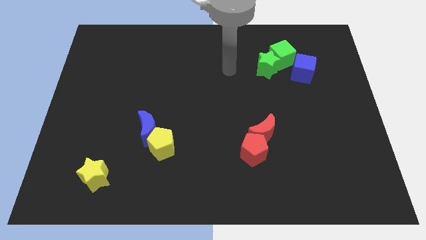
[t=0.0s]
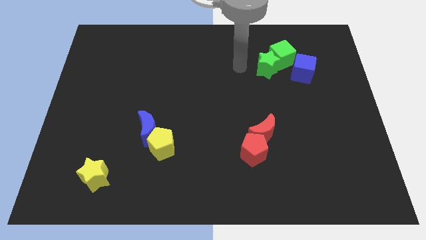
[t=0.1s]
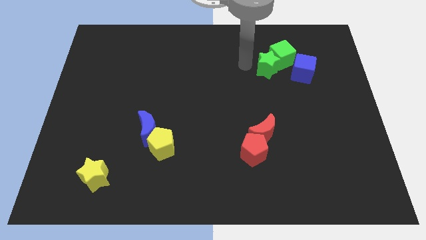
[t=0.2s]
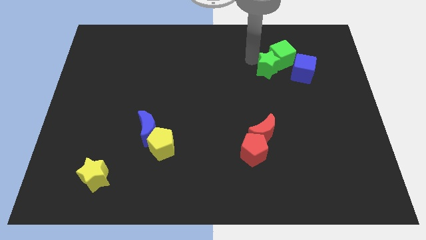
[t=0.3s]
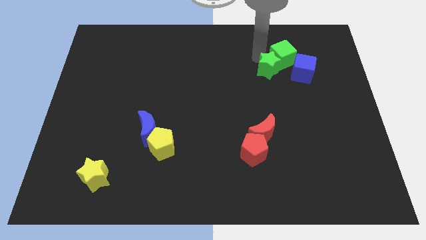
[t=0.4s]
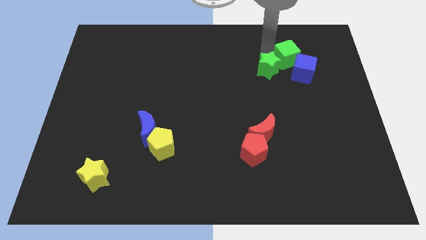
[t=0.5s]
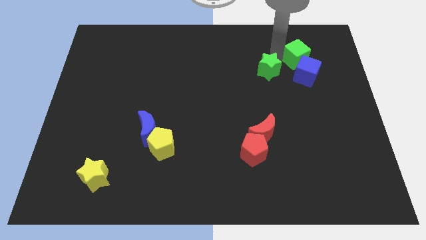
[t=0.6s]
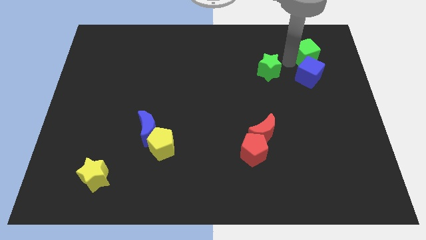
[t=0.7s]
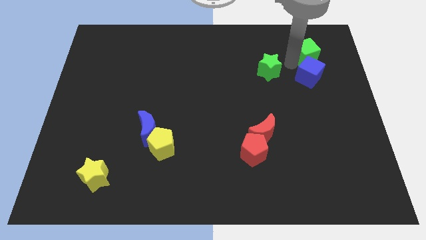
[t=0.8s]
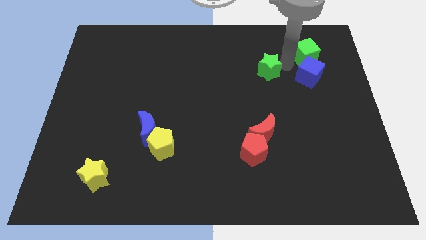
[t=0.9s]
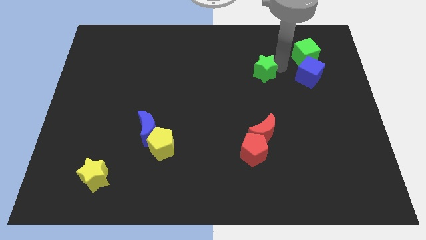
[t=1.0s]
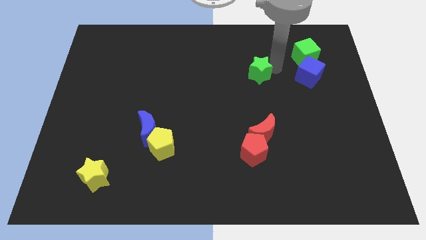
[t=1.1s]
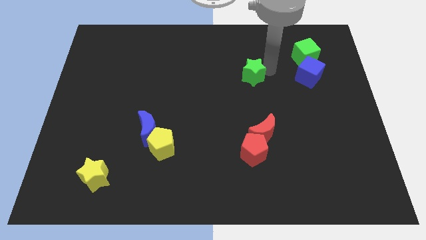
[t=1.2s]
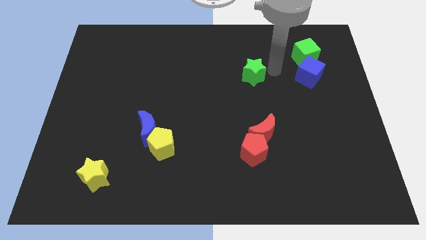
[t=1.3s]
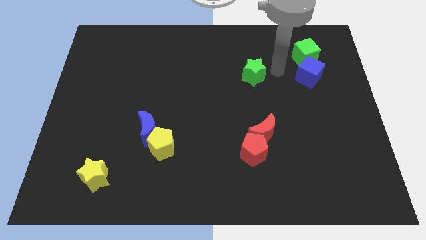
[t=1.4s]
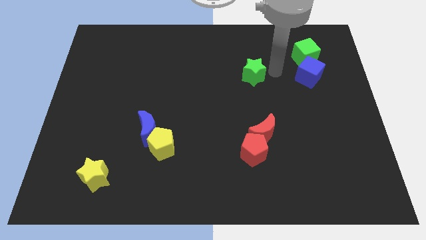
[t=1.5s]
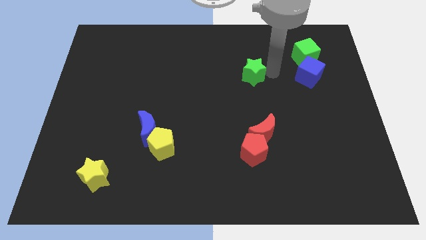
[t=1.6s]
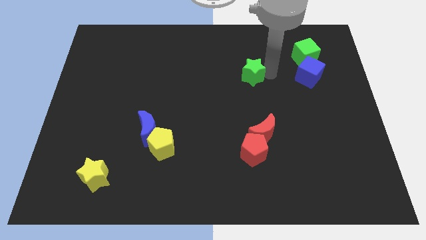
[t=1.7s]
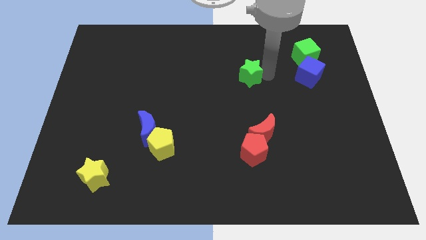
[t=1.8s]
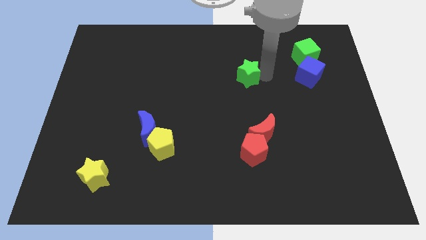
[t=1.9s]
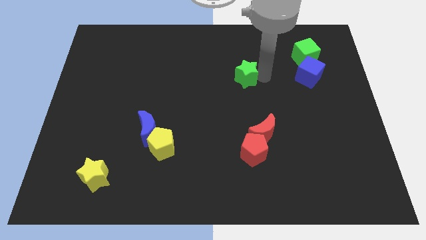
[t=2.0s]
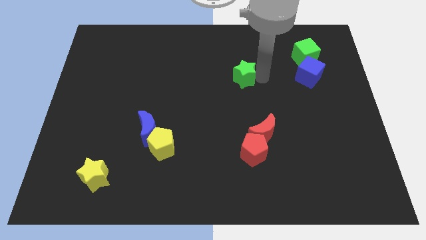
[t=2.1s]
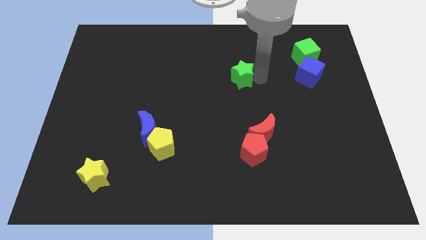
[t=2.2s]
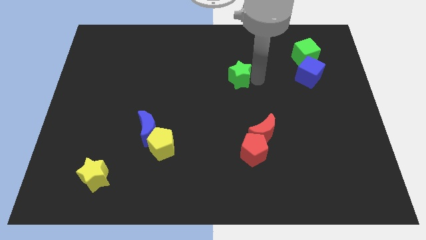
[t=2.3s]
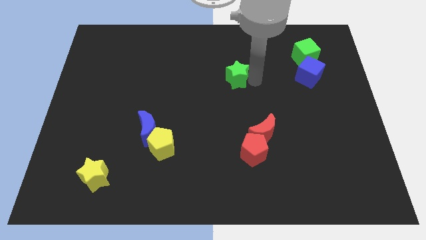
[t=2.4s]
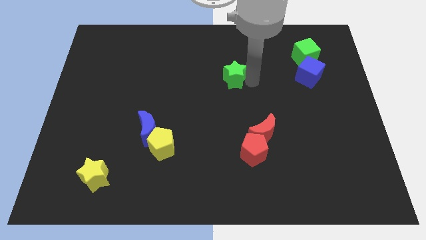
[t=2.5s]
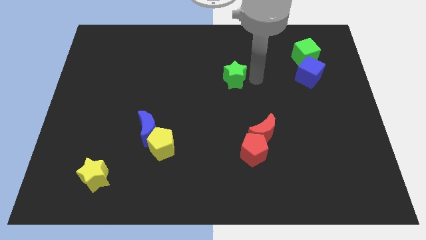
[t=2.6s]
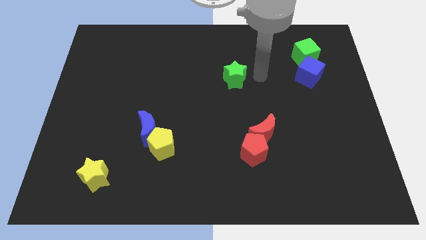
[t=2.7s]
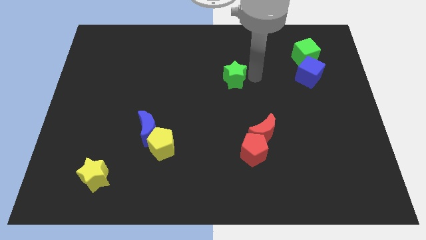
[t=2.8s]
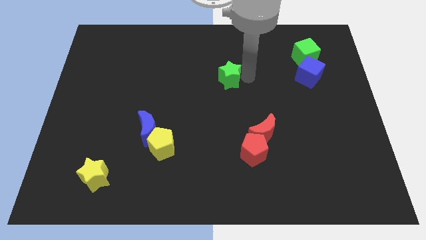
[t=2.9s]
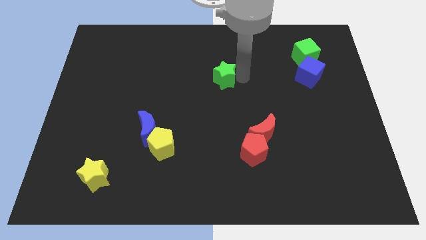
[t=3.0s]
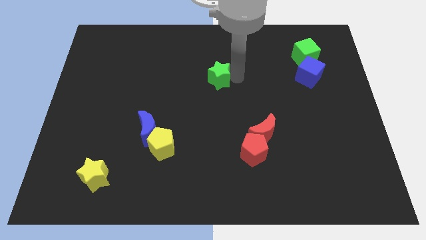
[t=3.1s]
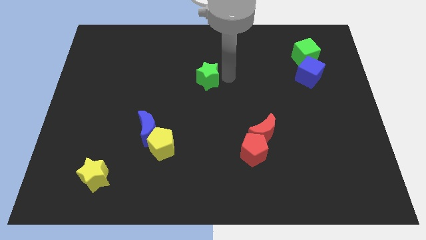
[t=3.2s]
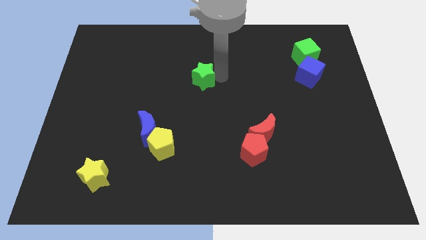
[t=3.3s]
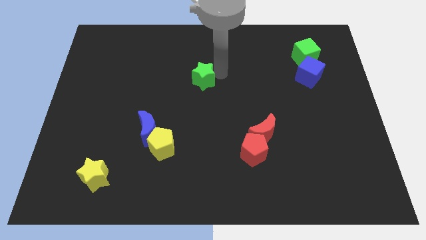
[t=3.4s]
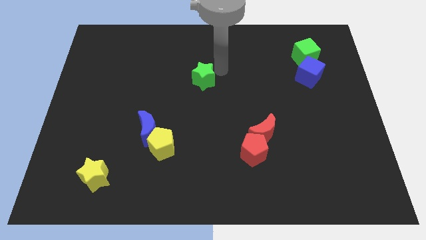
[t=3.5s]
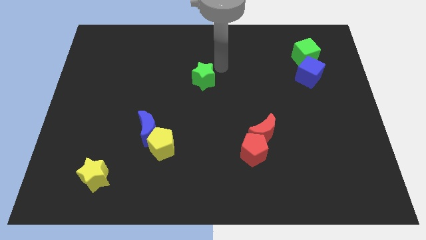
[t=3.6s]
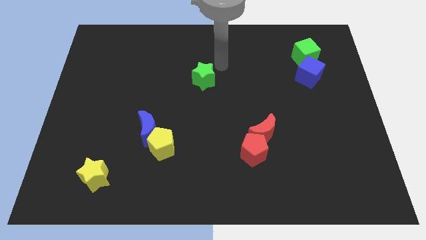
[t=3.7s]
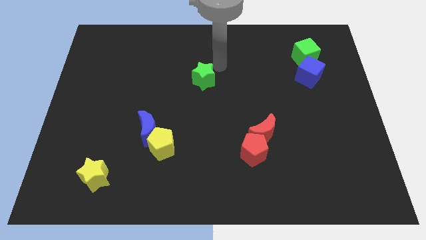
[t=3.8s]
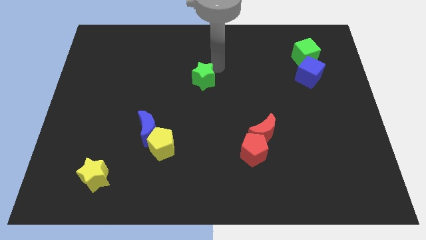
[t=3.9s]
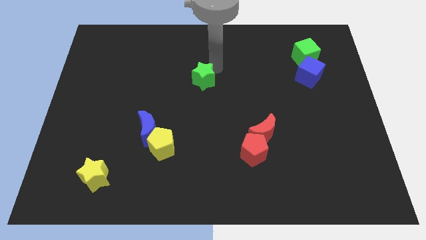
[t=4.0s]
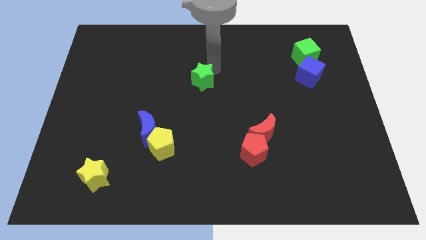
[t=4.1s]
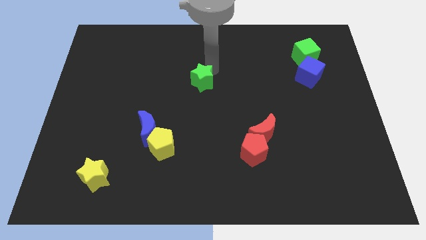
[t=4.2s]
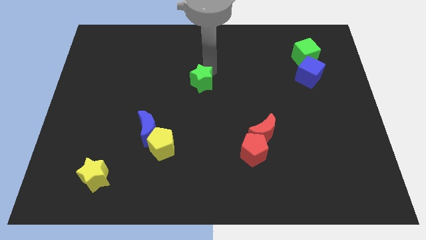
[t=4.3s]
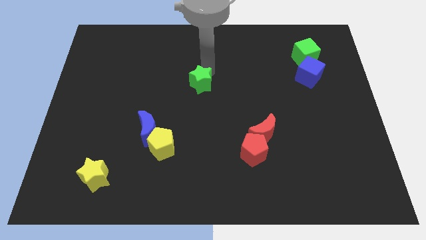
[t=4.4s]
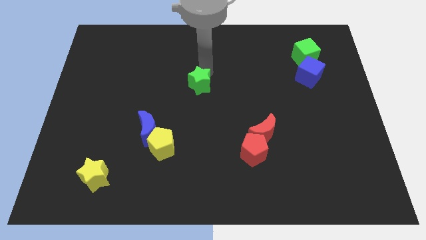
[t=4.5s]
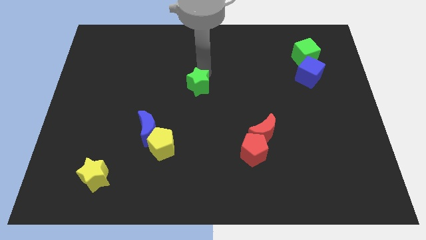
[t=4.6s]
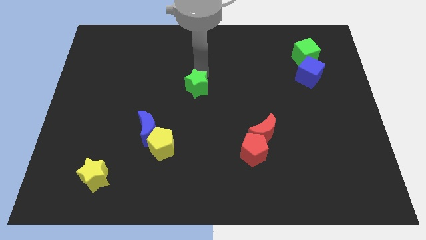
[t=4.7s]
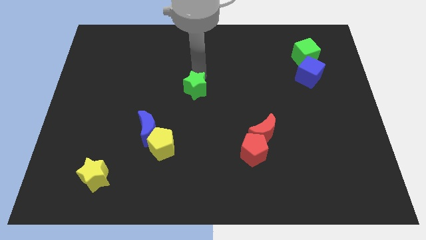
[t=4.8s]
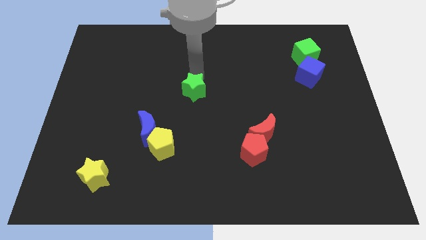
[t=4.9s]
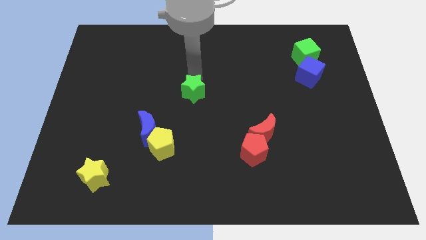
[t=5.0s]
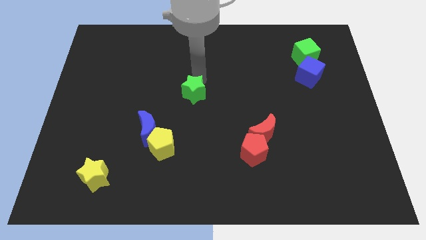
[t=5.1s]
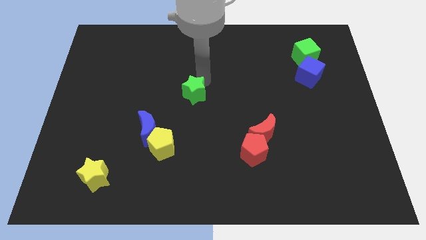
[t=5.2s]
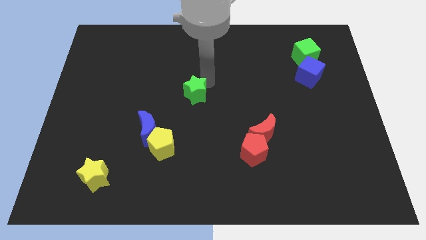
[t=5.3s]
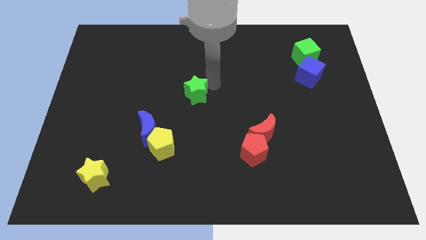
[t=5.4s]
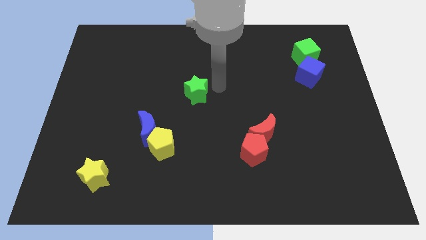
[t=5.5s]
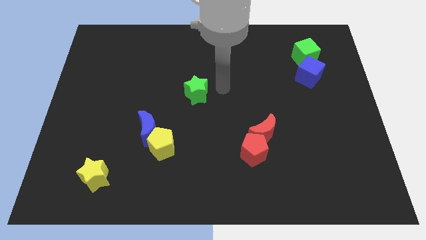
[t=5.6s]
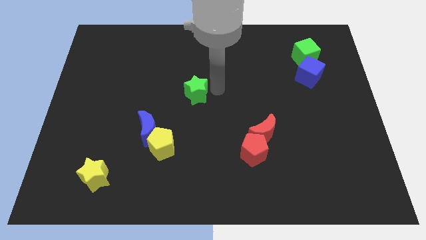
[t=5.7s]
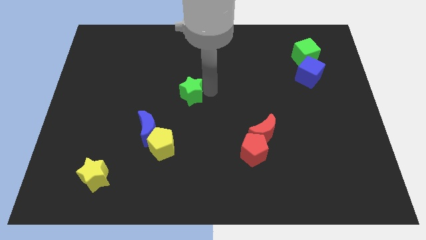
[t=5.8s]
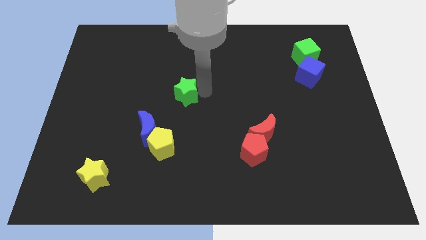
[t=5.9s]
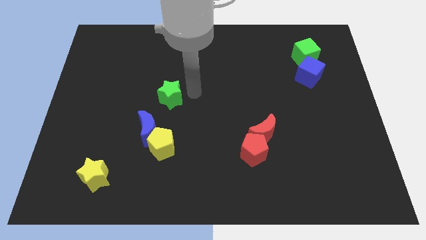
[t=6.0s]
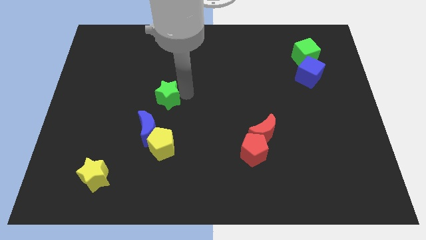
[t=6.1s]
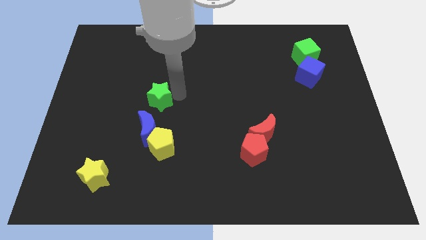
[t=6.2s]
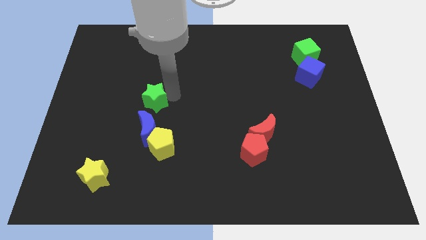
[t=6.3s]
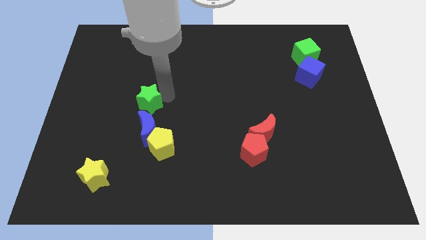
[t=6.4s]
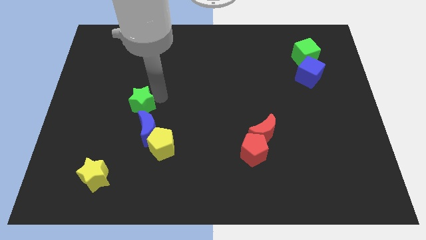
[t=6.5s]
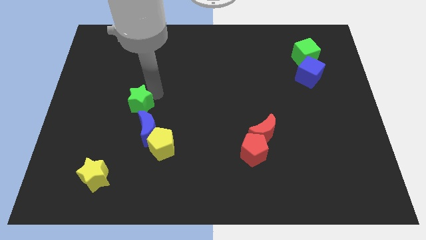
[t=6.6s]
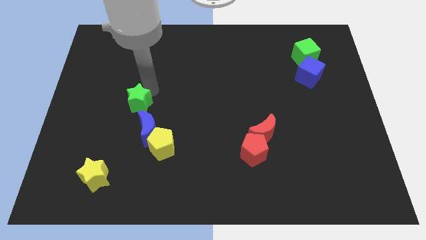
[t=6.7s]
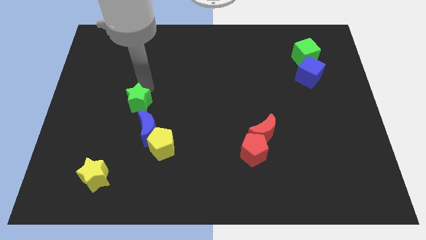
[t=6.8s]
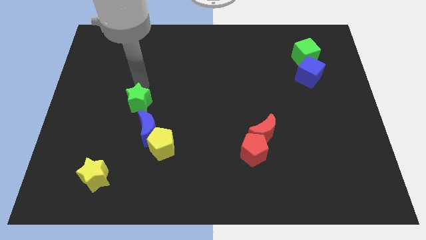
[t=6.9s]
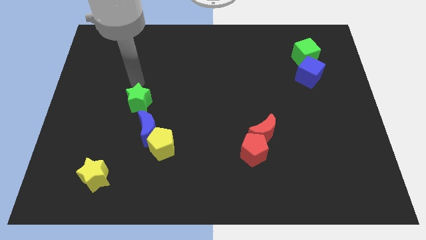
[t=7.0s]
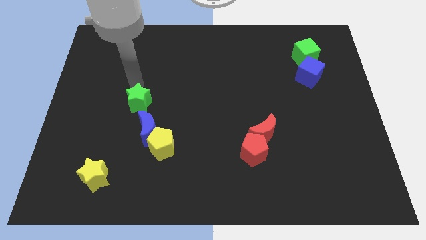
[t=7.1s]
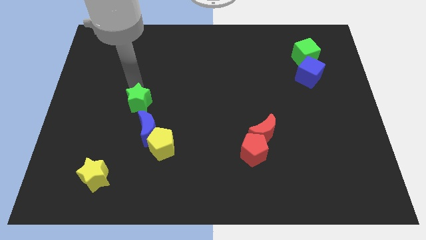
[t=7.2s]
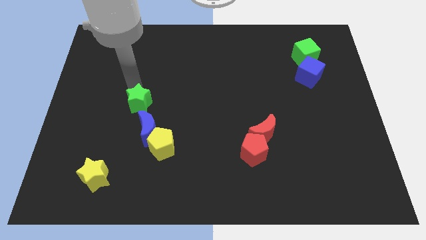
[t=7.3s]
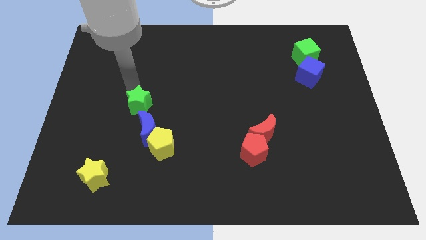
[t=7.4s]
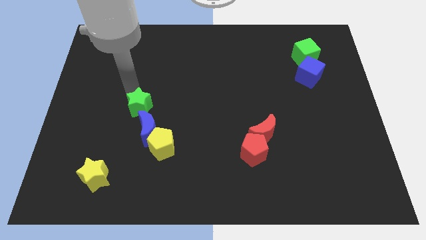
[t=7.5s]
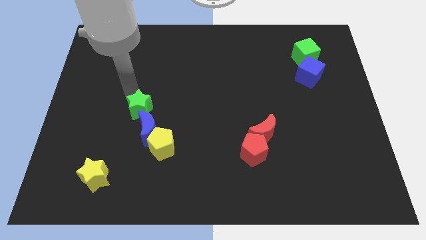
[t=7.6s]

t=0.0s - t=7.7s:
push the green star diagonally up and to the left of the yellow pentagon
